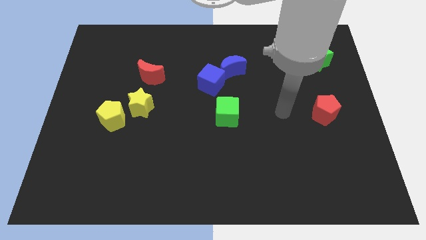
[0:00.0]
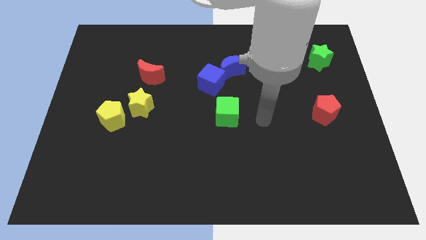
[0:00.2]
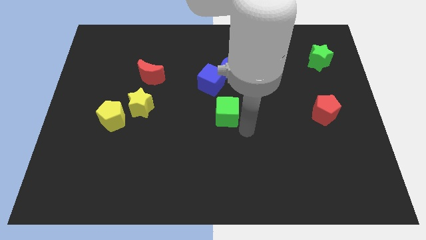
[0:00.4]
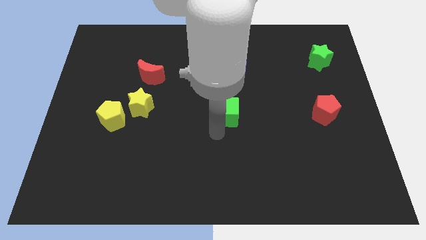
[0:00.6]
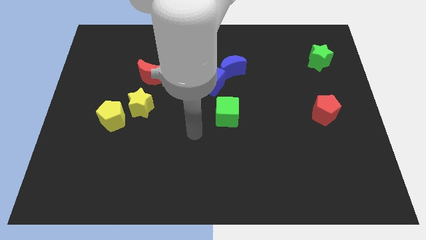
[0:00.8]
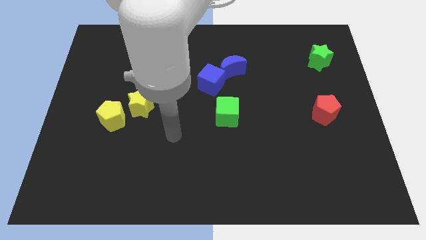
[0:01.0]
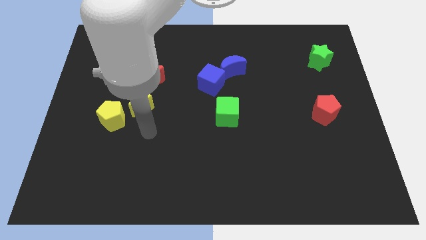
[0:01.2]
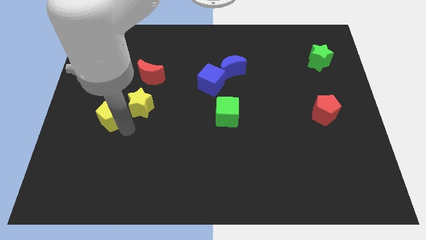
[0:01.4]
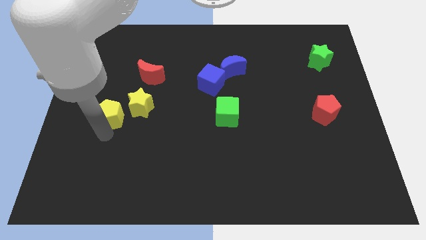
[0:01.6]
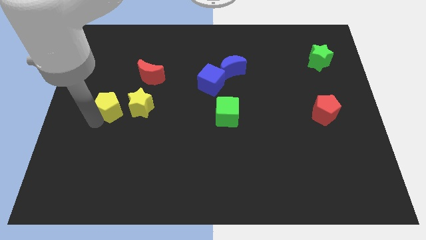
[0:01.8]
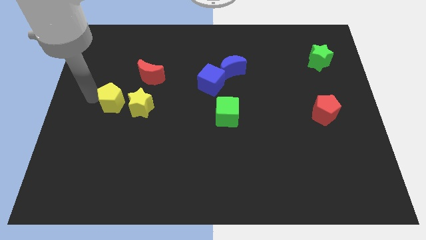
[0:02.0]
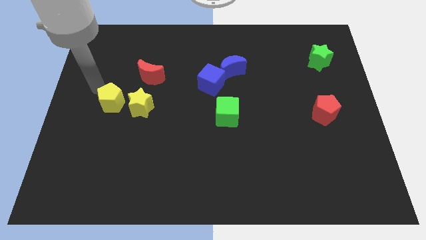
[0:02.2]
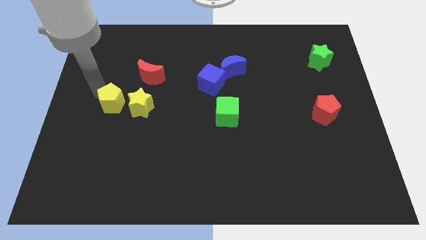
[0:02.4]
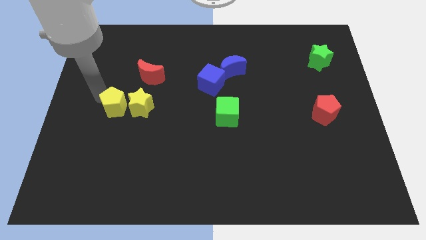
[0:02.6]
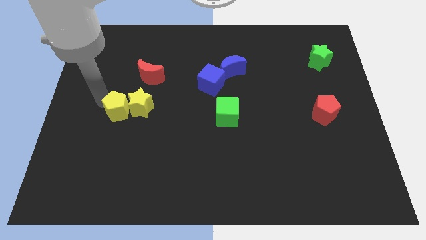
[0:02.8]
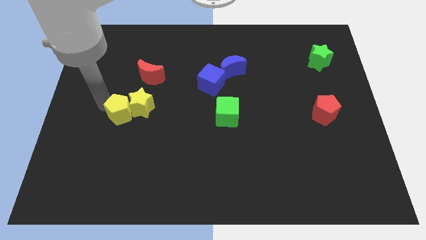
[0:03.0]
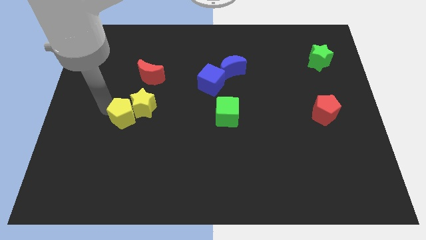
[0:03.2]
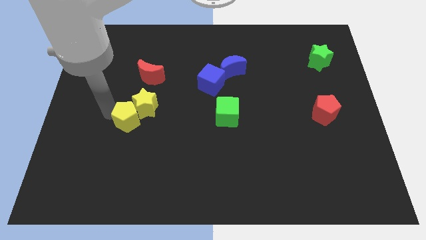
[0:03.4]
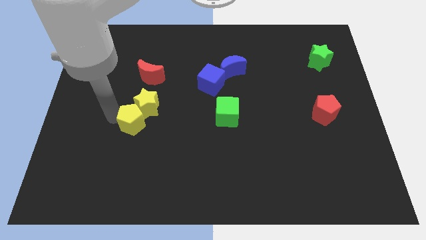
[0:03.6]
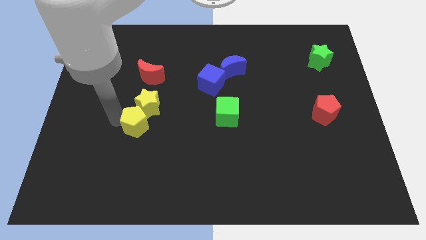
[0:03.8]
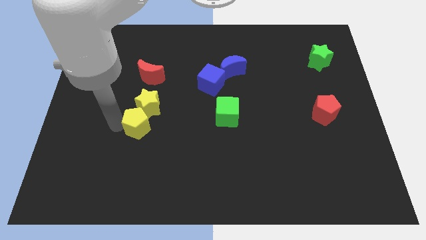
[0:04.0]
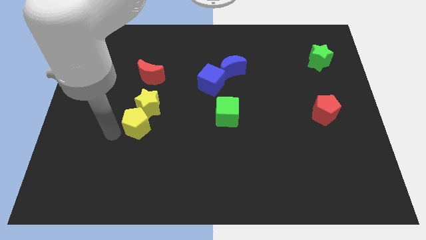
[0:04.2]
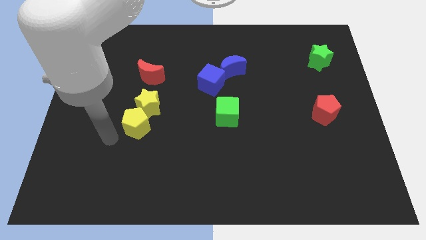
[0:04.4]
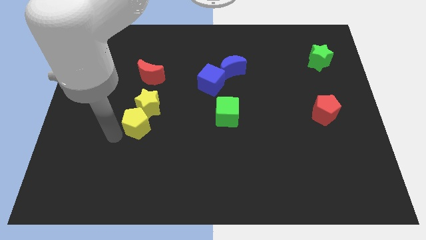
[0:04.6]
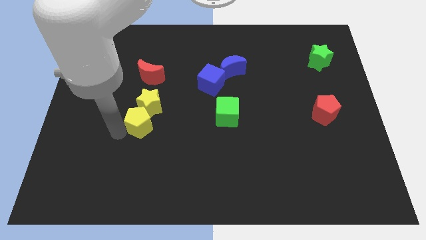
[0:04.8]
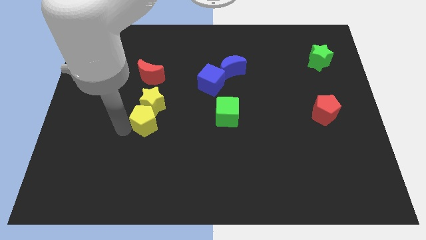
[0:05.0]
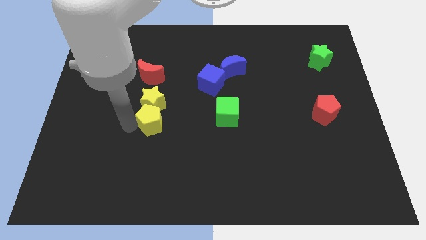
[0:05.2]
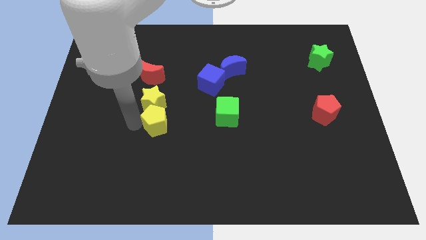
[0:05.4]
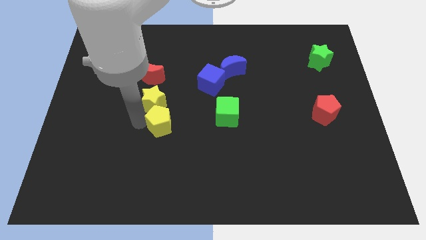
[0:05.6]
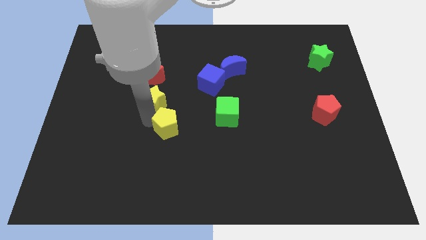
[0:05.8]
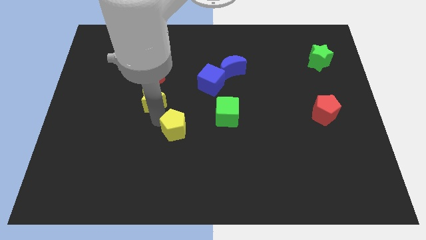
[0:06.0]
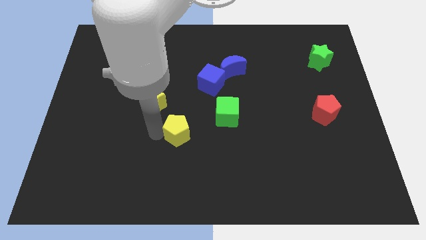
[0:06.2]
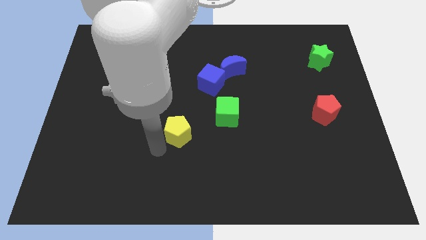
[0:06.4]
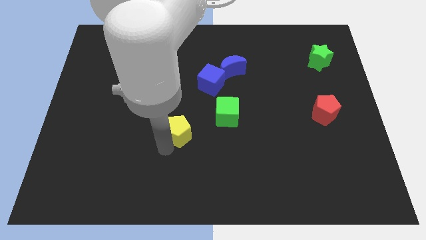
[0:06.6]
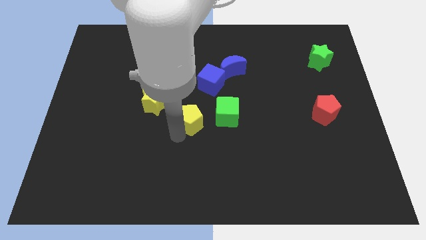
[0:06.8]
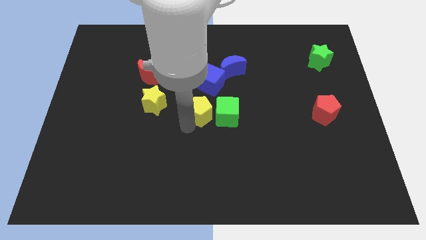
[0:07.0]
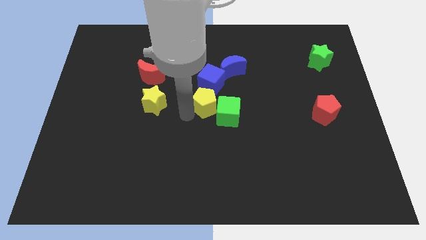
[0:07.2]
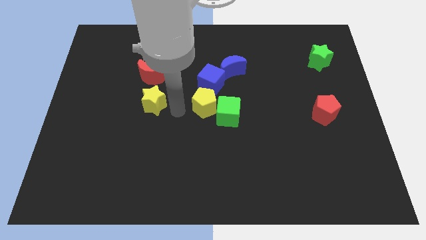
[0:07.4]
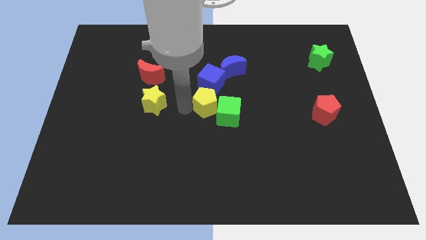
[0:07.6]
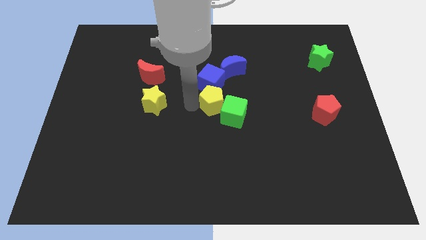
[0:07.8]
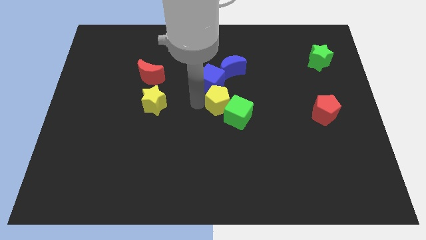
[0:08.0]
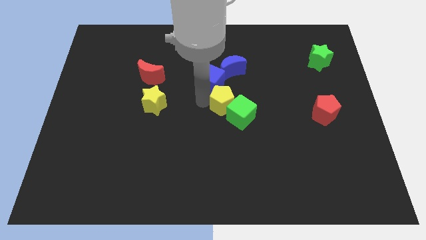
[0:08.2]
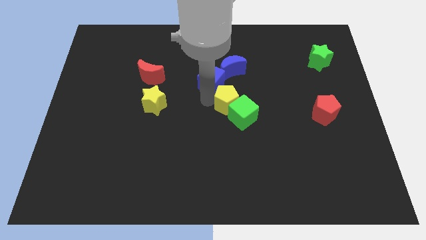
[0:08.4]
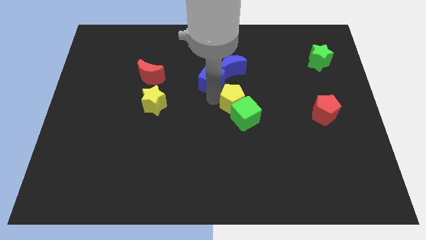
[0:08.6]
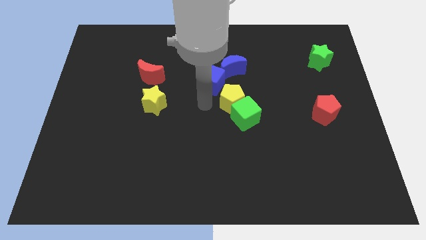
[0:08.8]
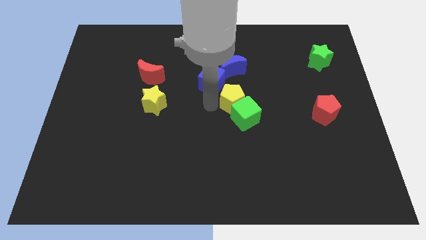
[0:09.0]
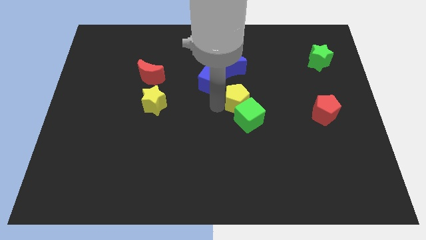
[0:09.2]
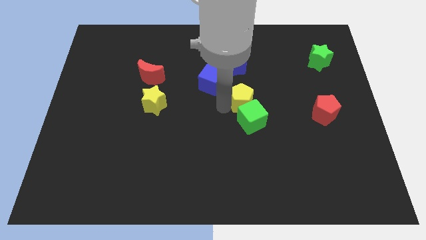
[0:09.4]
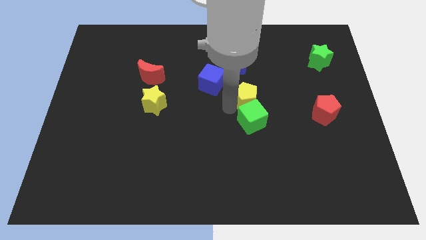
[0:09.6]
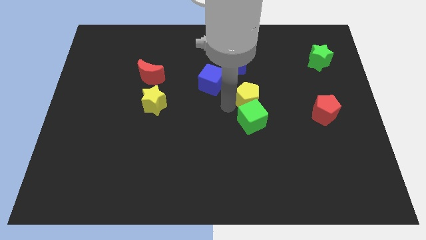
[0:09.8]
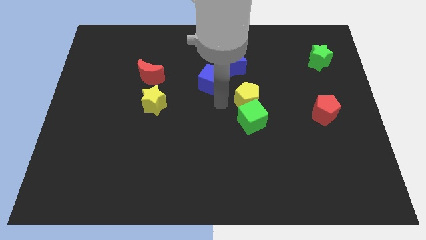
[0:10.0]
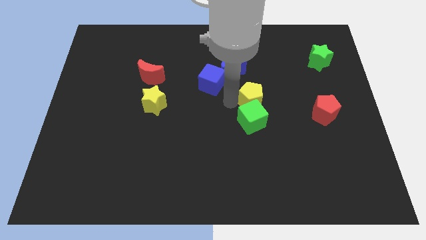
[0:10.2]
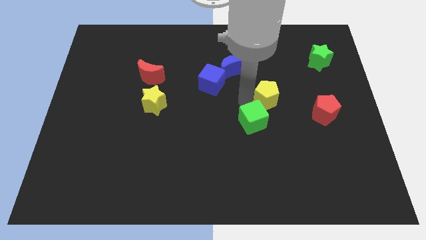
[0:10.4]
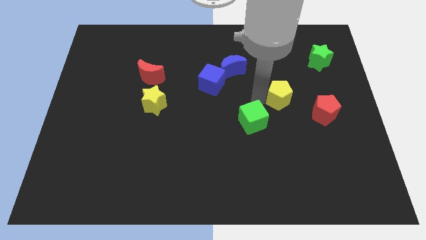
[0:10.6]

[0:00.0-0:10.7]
move the yellow pentagon to the top left of the red pentagon

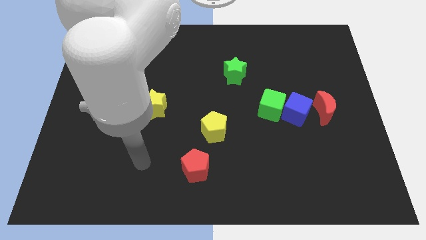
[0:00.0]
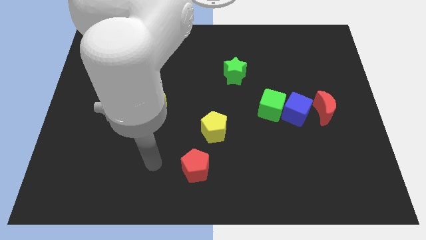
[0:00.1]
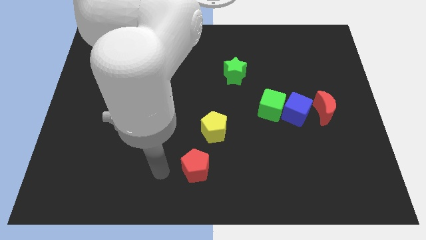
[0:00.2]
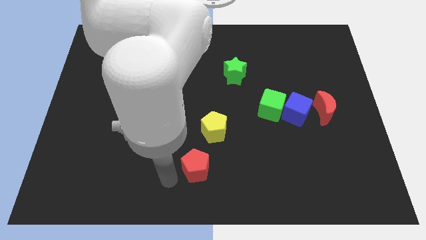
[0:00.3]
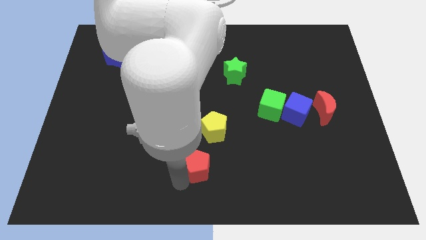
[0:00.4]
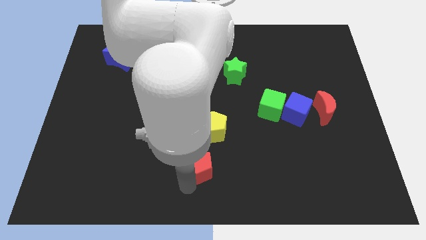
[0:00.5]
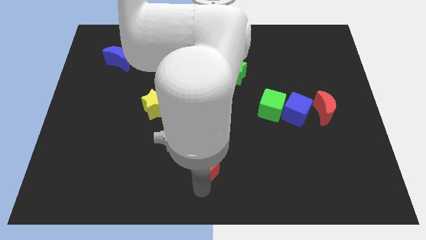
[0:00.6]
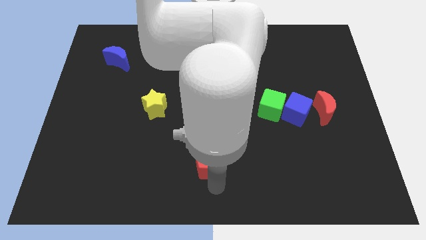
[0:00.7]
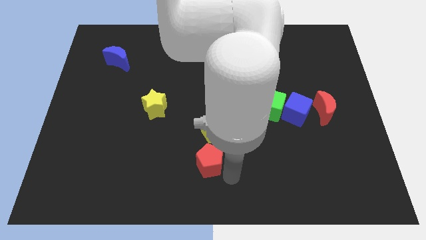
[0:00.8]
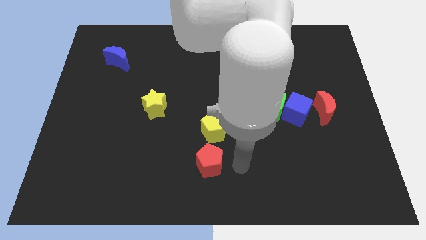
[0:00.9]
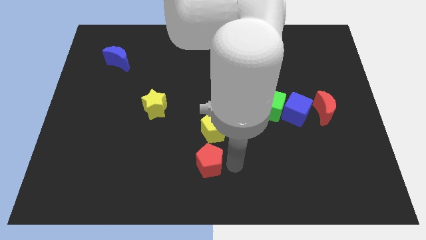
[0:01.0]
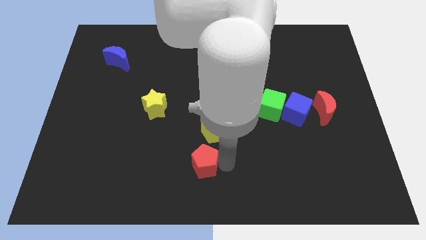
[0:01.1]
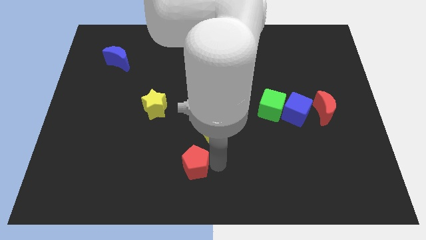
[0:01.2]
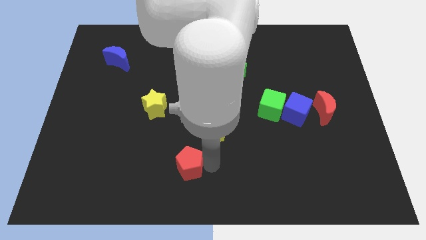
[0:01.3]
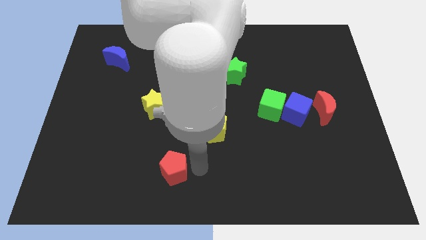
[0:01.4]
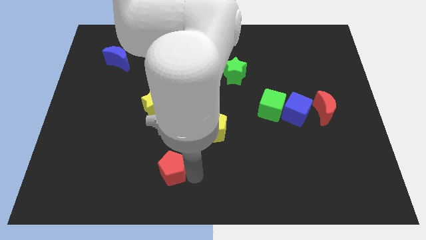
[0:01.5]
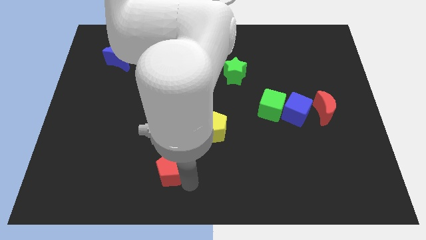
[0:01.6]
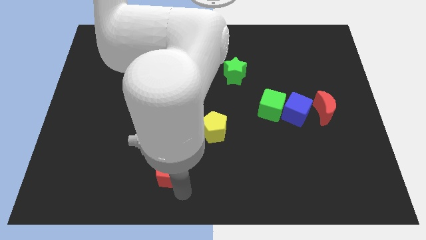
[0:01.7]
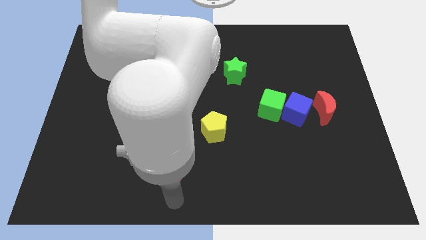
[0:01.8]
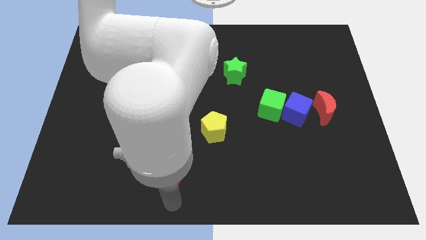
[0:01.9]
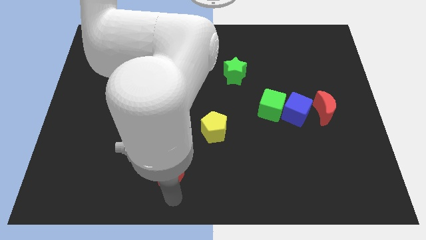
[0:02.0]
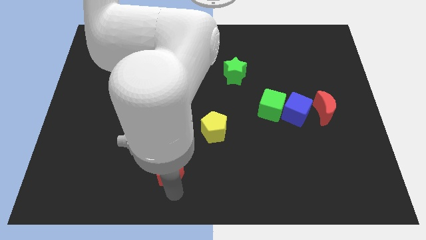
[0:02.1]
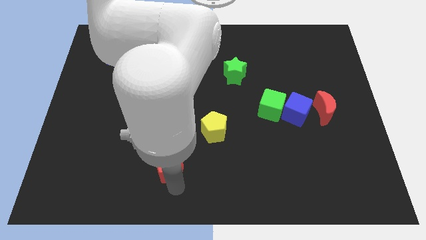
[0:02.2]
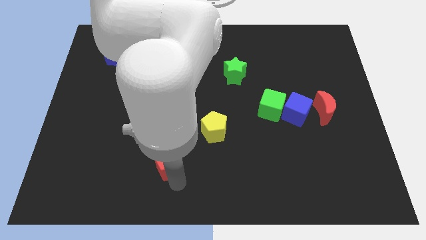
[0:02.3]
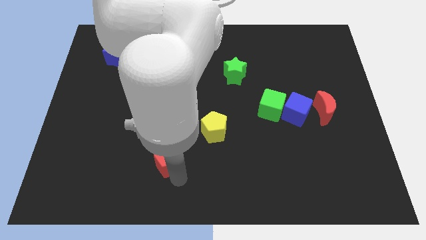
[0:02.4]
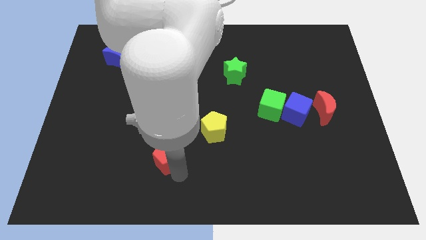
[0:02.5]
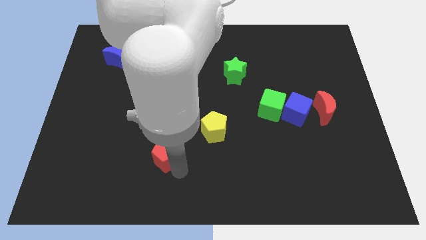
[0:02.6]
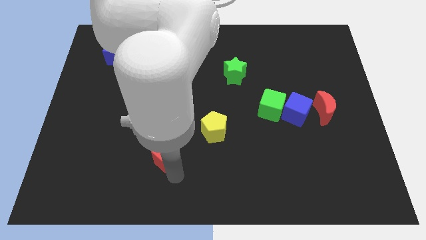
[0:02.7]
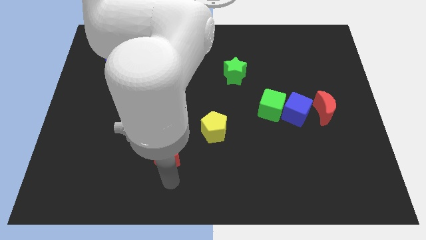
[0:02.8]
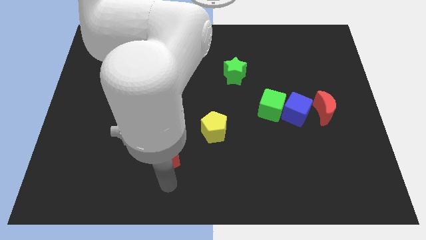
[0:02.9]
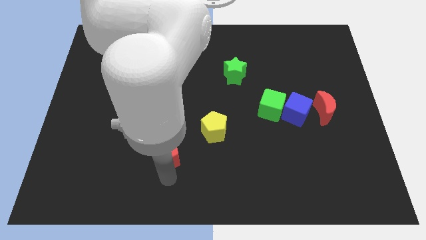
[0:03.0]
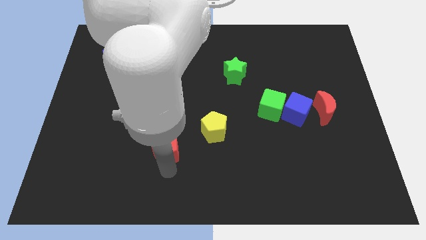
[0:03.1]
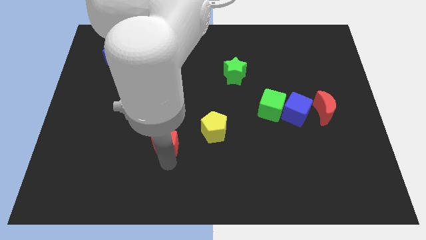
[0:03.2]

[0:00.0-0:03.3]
slide the red pentagon just left of the yellow pentagon
